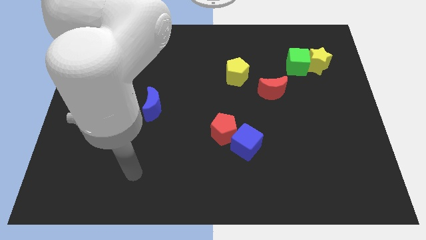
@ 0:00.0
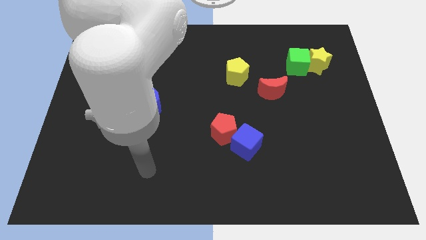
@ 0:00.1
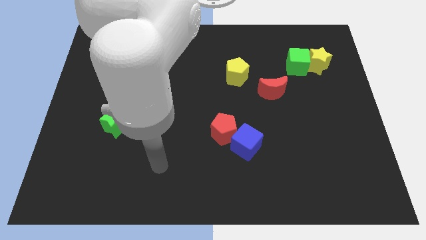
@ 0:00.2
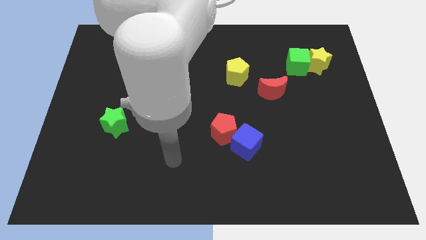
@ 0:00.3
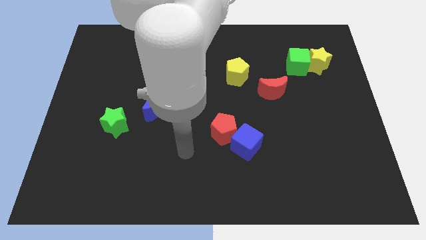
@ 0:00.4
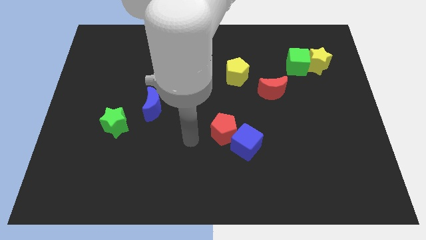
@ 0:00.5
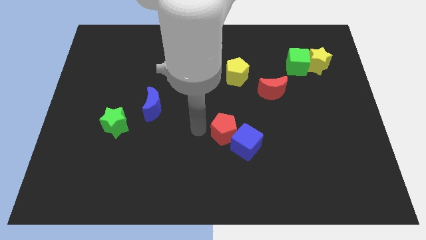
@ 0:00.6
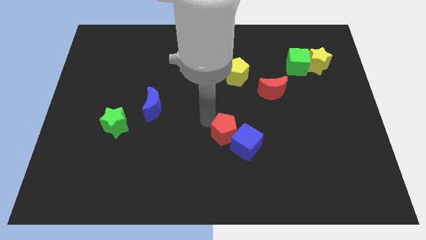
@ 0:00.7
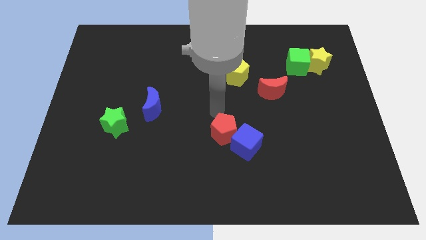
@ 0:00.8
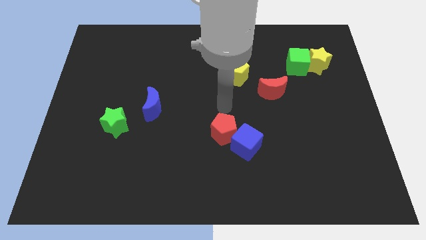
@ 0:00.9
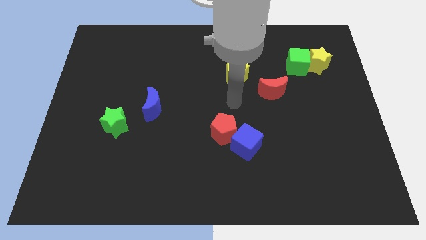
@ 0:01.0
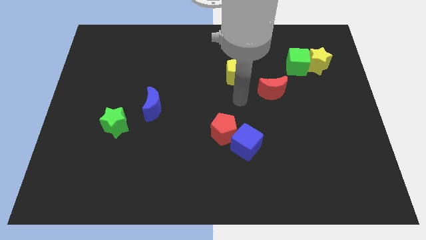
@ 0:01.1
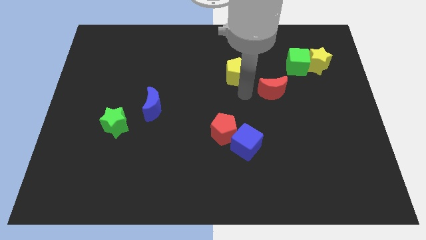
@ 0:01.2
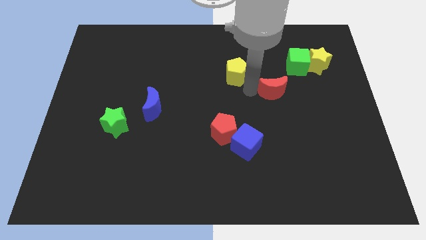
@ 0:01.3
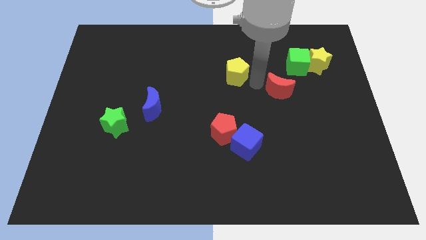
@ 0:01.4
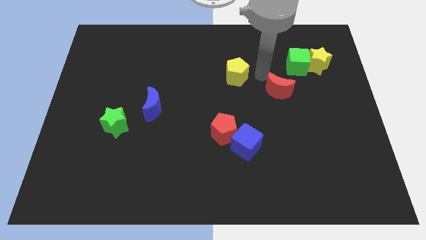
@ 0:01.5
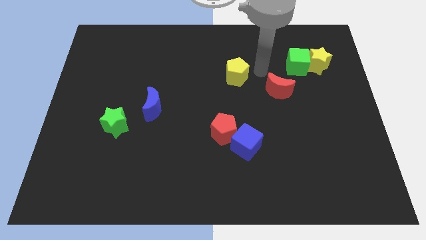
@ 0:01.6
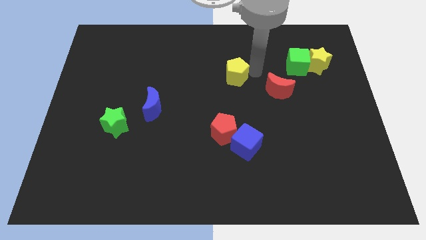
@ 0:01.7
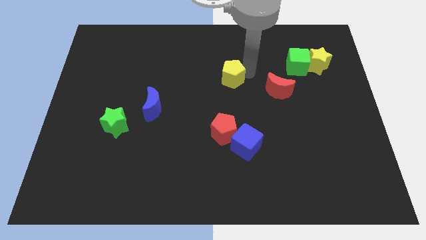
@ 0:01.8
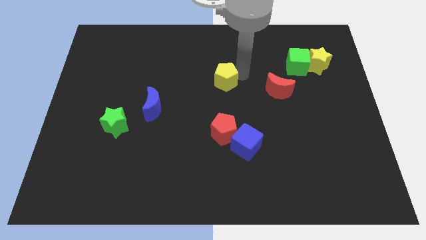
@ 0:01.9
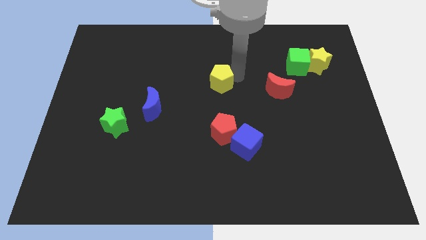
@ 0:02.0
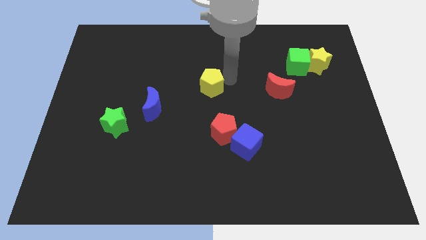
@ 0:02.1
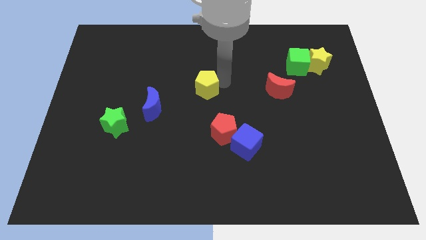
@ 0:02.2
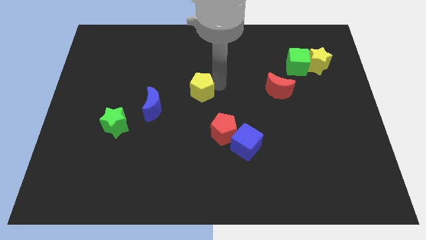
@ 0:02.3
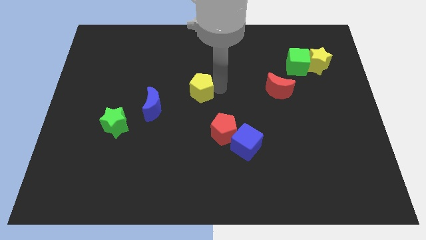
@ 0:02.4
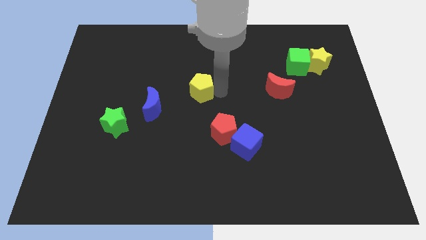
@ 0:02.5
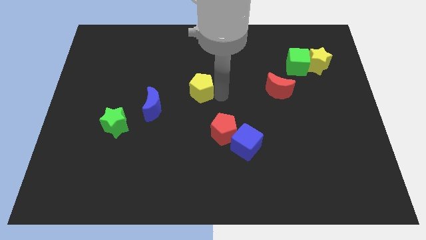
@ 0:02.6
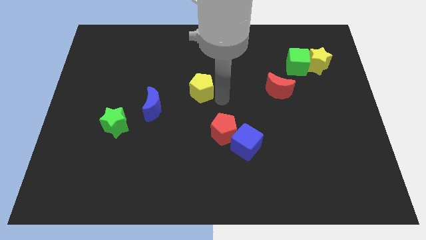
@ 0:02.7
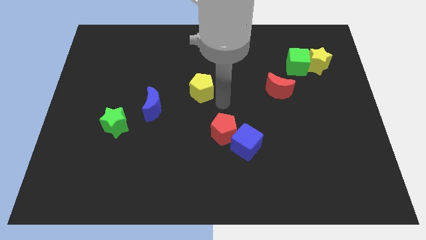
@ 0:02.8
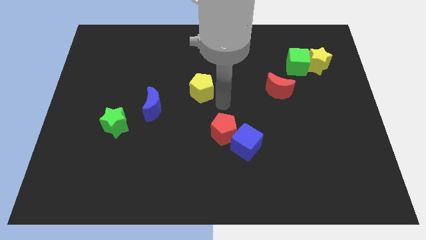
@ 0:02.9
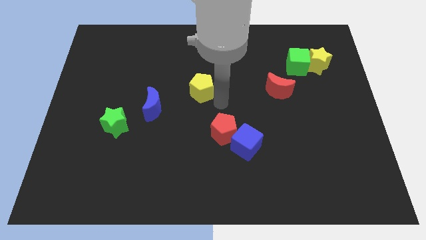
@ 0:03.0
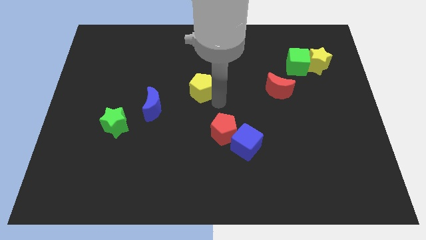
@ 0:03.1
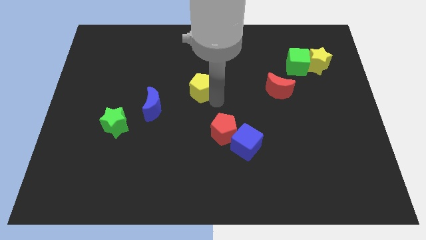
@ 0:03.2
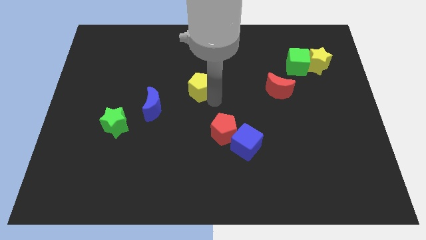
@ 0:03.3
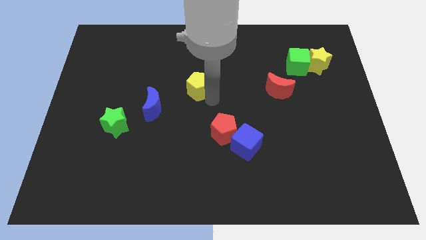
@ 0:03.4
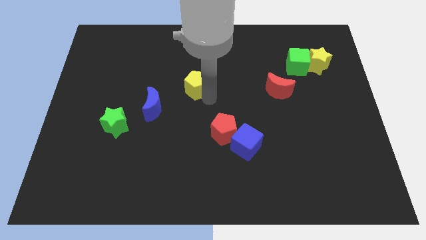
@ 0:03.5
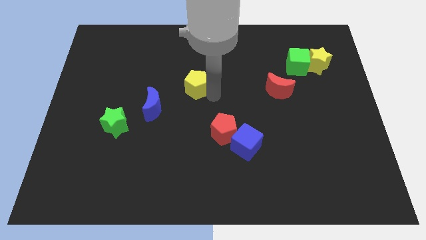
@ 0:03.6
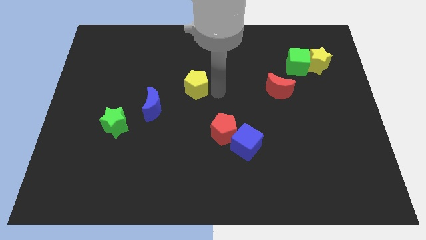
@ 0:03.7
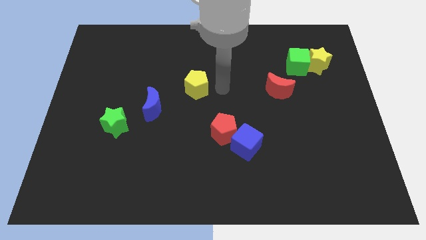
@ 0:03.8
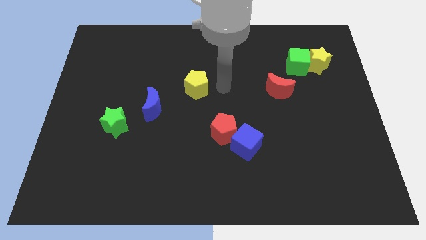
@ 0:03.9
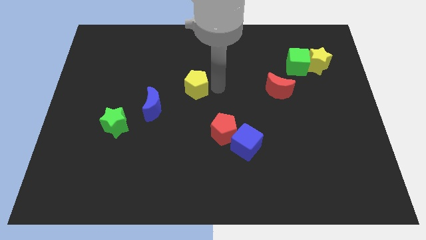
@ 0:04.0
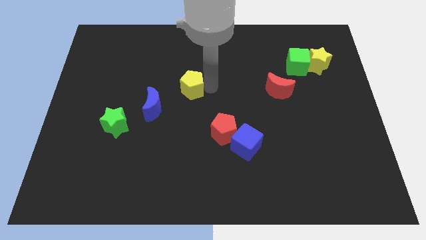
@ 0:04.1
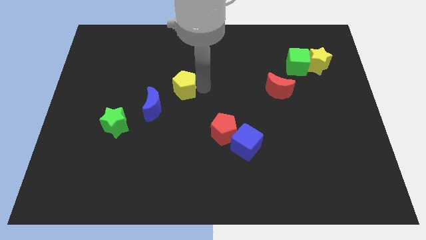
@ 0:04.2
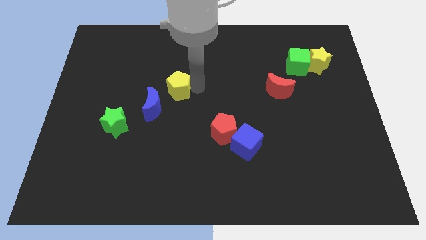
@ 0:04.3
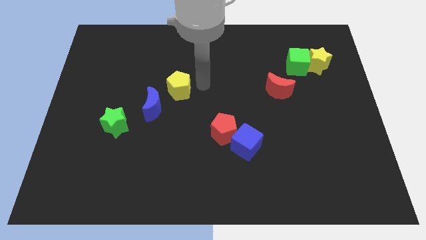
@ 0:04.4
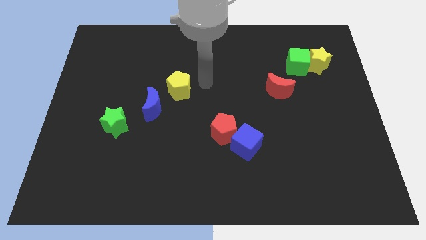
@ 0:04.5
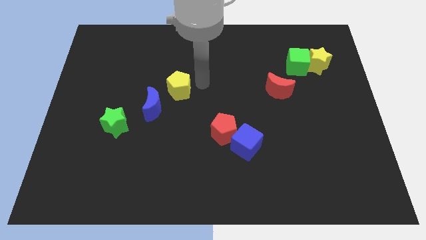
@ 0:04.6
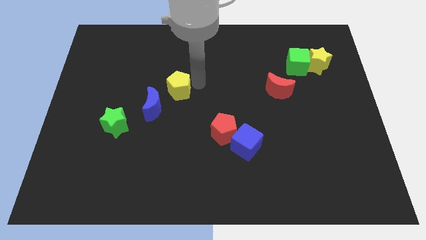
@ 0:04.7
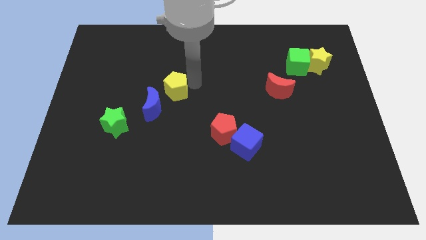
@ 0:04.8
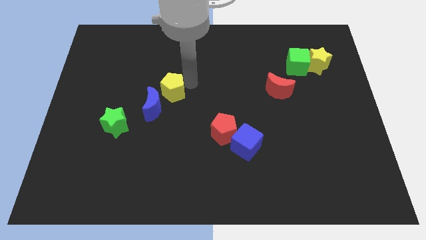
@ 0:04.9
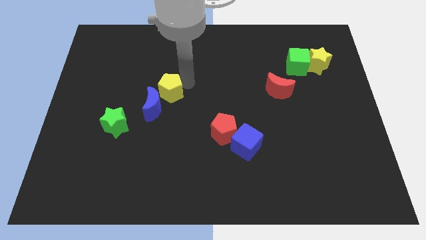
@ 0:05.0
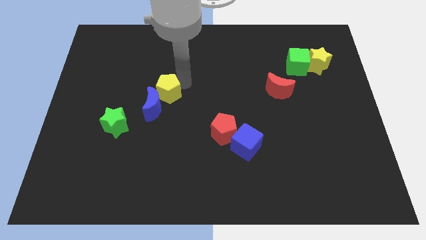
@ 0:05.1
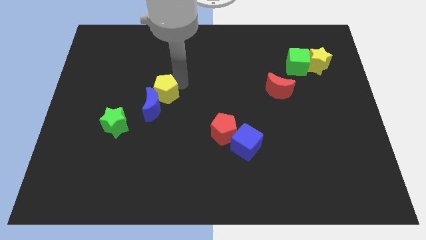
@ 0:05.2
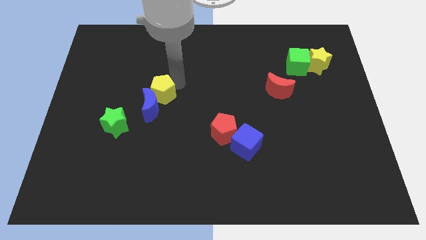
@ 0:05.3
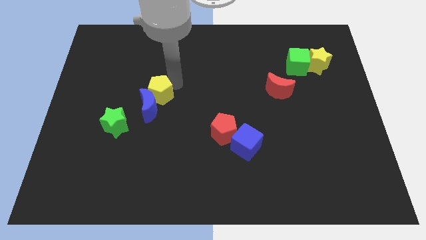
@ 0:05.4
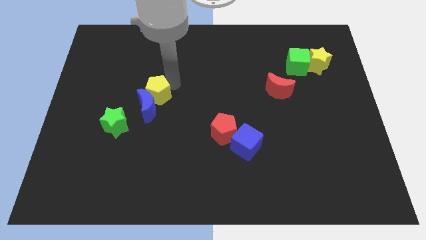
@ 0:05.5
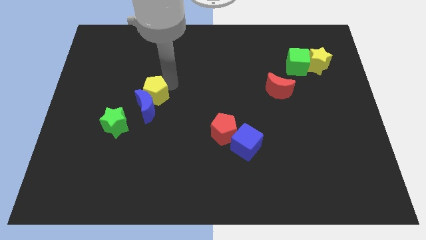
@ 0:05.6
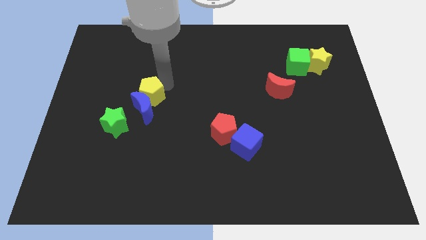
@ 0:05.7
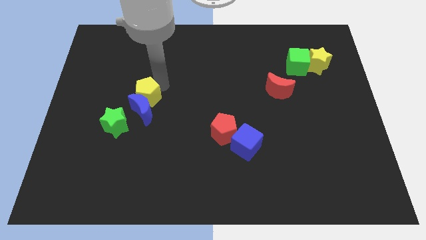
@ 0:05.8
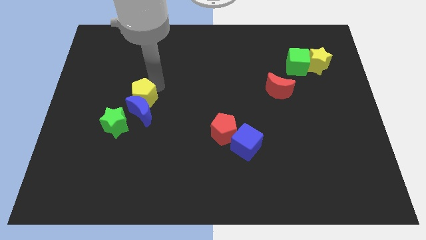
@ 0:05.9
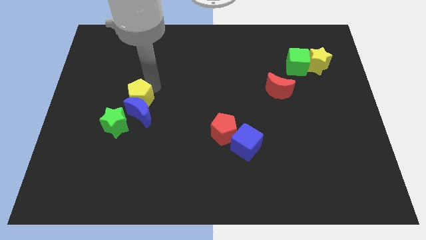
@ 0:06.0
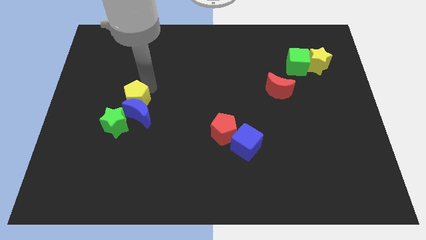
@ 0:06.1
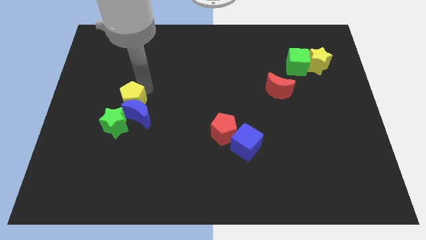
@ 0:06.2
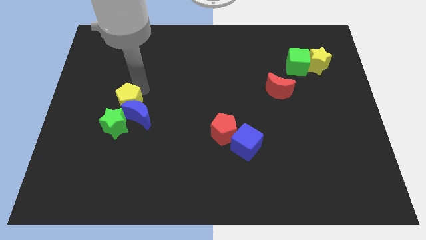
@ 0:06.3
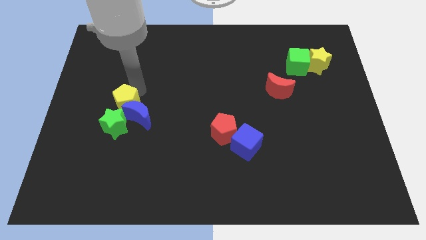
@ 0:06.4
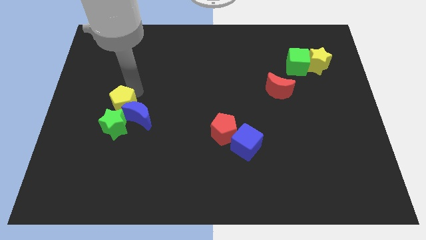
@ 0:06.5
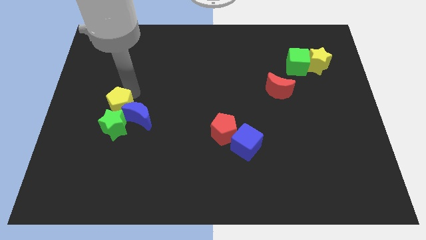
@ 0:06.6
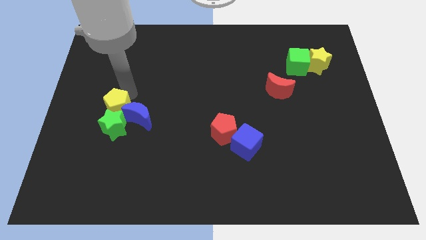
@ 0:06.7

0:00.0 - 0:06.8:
move the yellow pentagon towards the green star

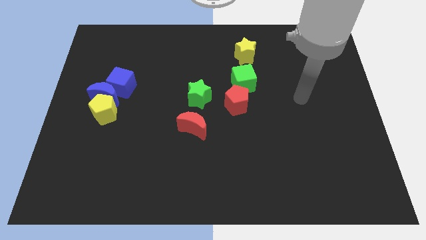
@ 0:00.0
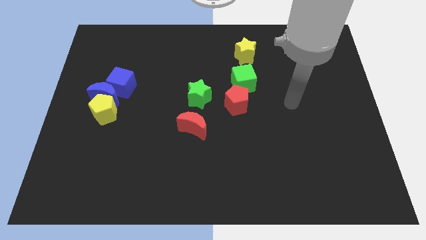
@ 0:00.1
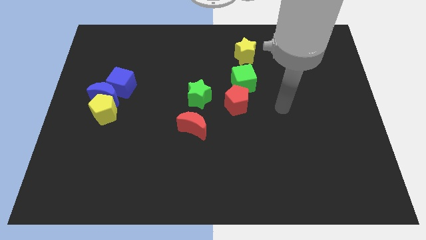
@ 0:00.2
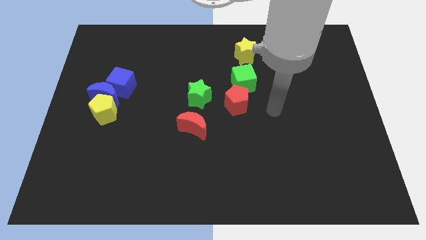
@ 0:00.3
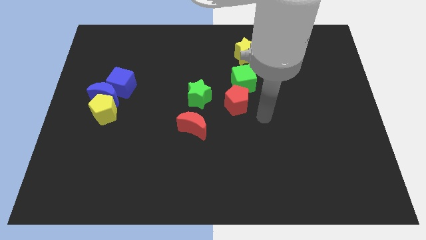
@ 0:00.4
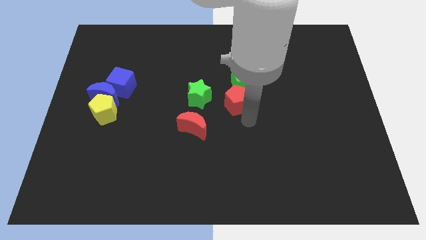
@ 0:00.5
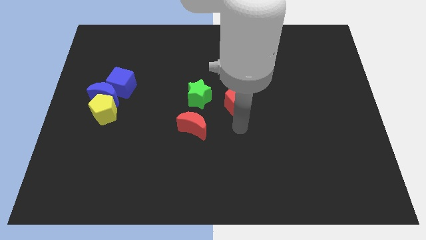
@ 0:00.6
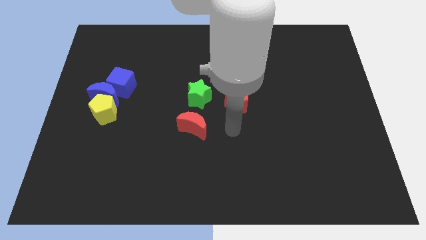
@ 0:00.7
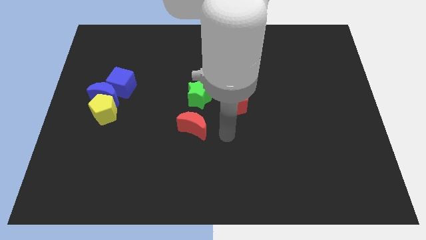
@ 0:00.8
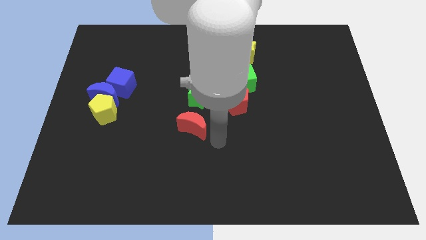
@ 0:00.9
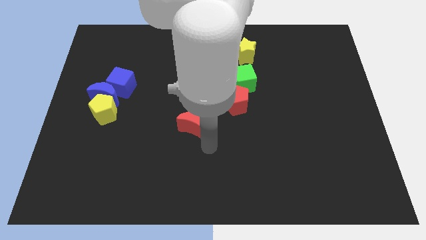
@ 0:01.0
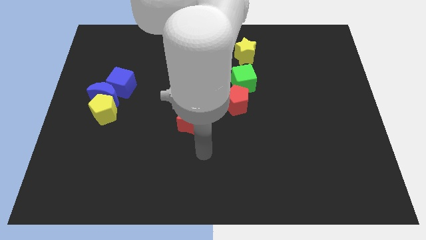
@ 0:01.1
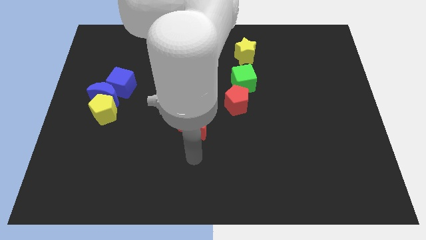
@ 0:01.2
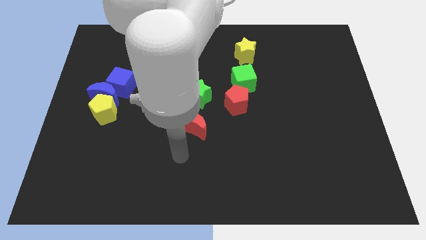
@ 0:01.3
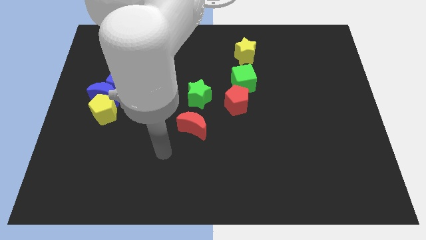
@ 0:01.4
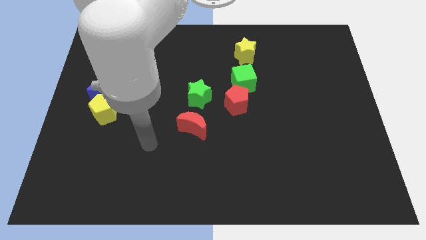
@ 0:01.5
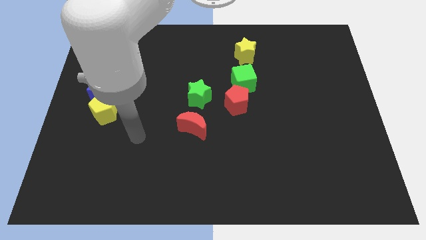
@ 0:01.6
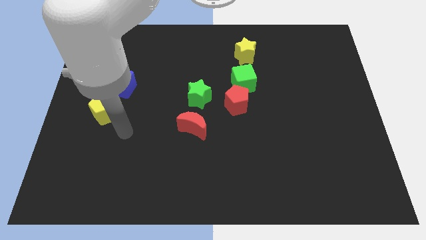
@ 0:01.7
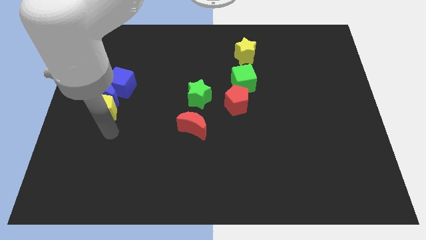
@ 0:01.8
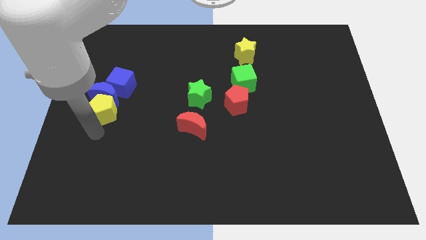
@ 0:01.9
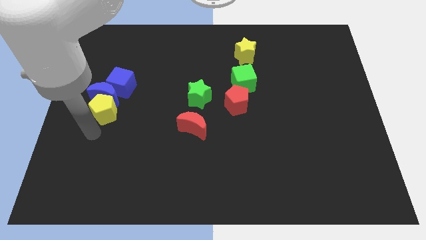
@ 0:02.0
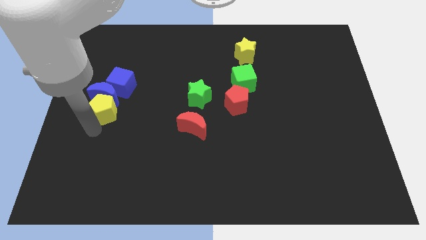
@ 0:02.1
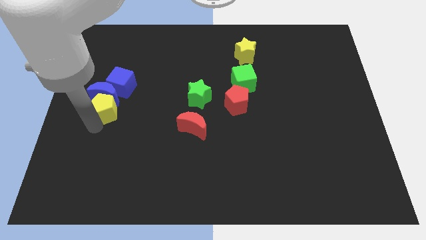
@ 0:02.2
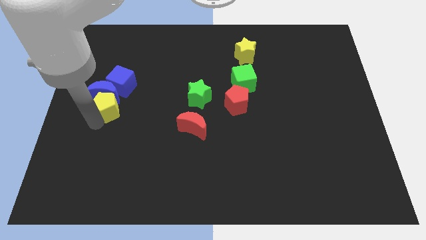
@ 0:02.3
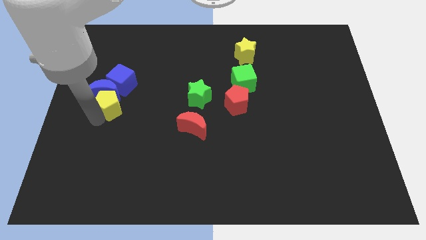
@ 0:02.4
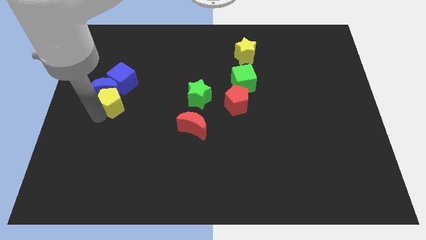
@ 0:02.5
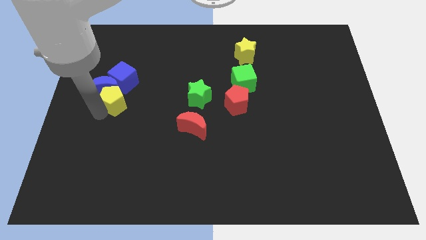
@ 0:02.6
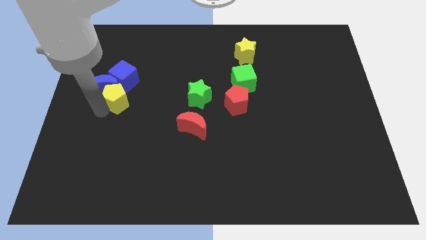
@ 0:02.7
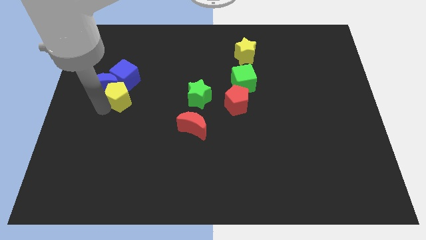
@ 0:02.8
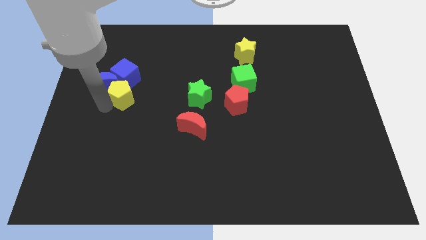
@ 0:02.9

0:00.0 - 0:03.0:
push the yellow pentagon towards the blue cube
